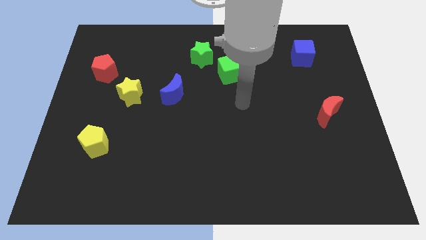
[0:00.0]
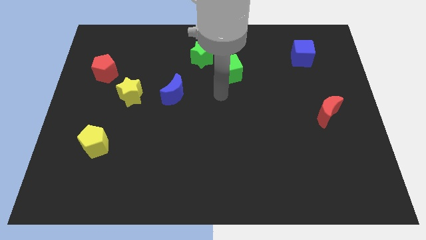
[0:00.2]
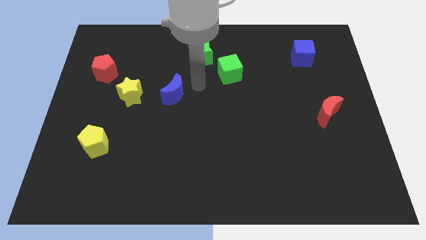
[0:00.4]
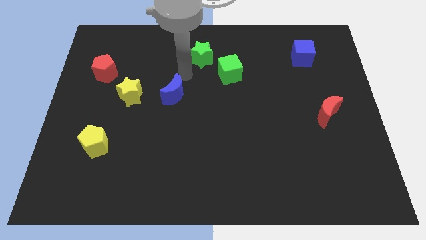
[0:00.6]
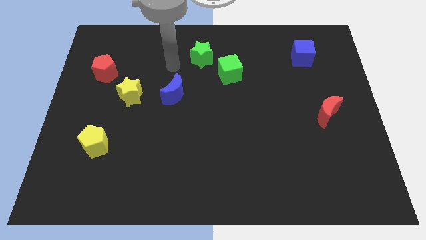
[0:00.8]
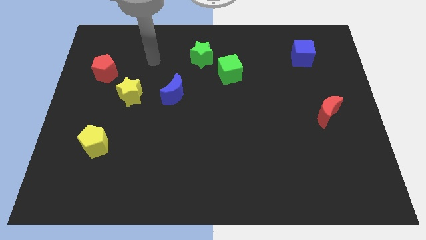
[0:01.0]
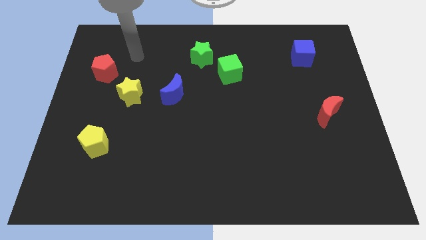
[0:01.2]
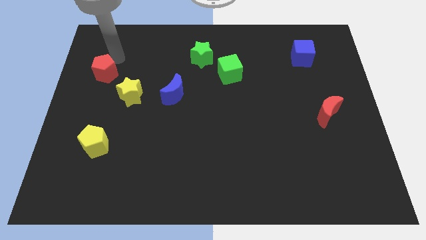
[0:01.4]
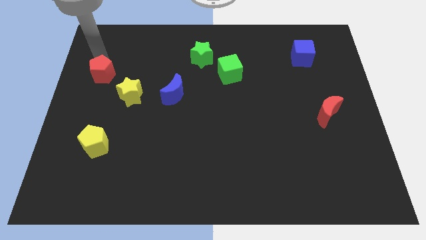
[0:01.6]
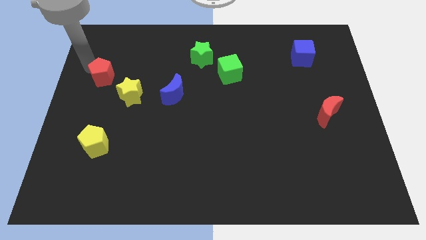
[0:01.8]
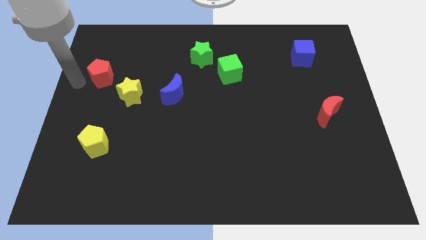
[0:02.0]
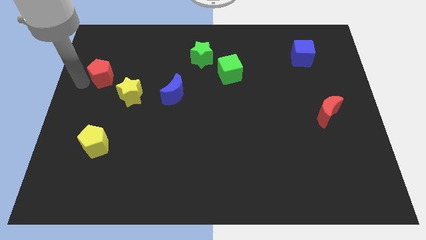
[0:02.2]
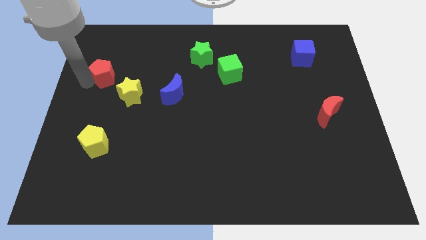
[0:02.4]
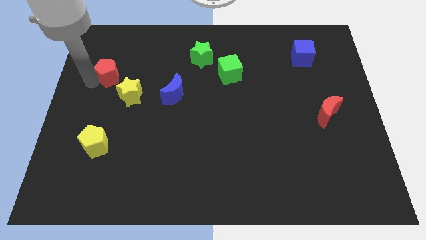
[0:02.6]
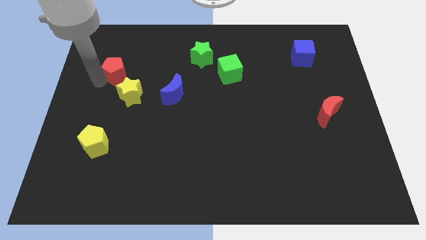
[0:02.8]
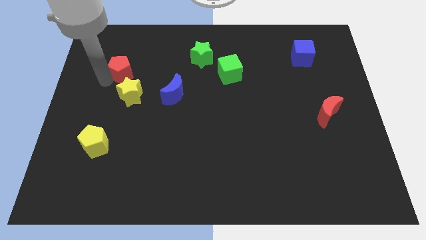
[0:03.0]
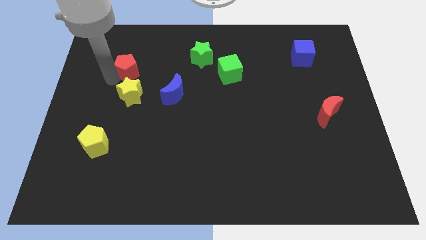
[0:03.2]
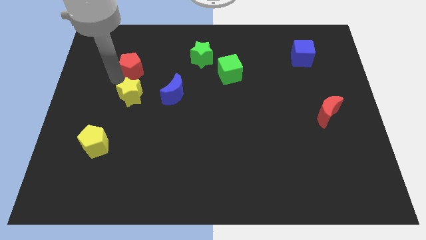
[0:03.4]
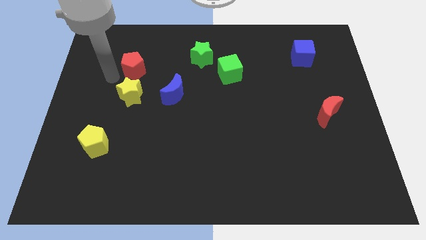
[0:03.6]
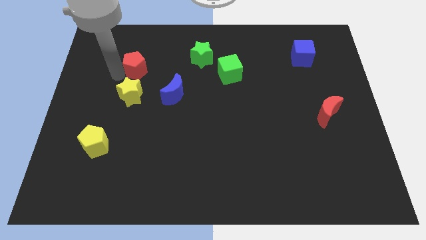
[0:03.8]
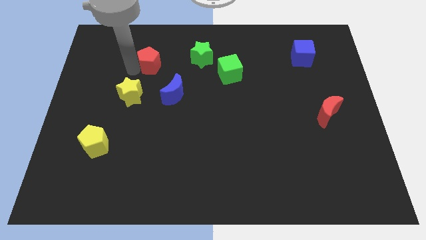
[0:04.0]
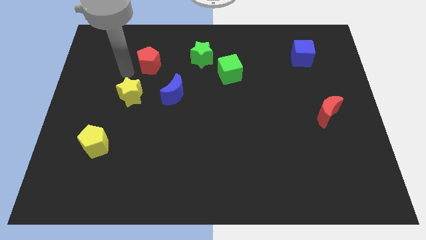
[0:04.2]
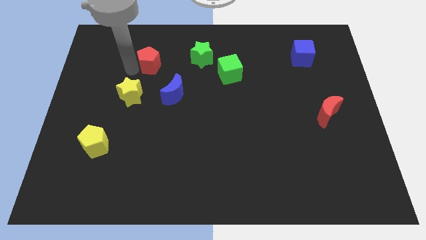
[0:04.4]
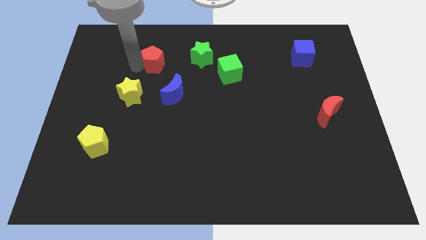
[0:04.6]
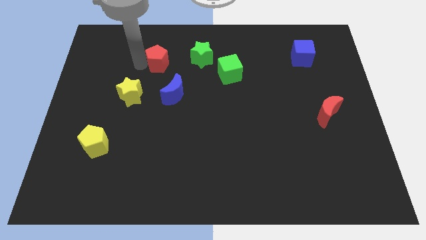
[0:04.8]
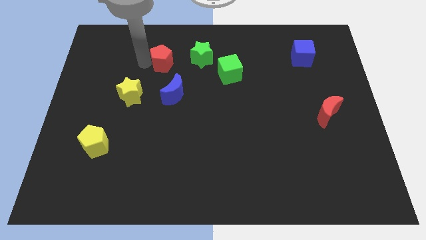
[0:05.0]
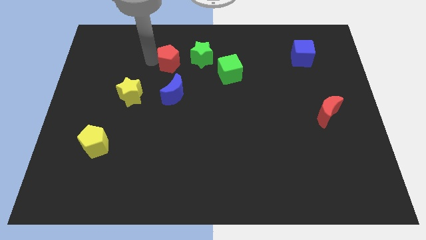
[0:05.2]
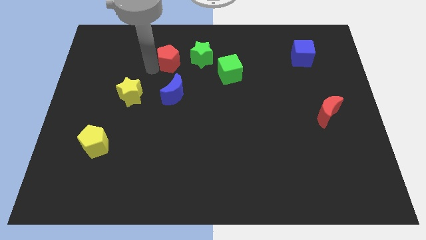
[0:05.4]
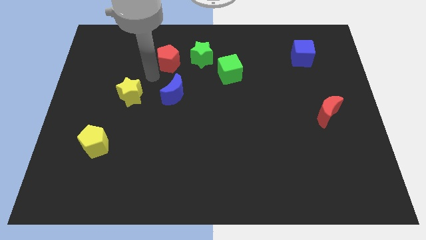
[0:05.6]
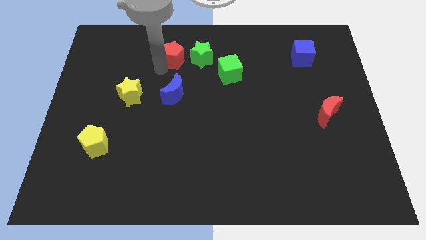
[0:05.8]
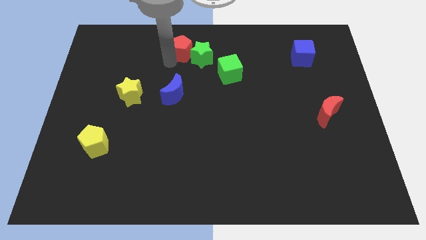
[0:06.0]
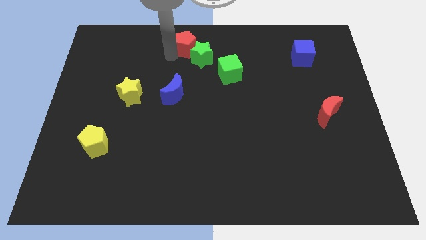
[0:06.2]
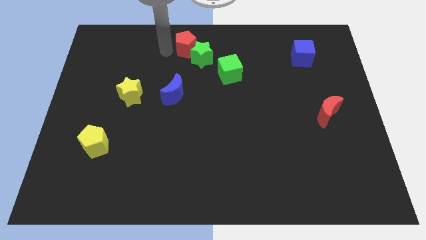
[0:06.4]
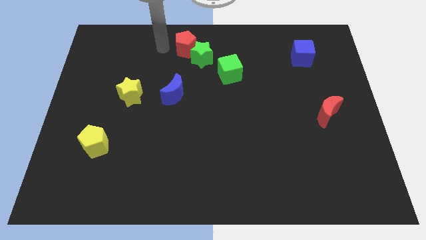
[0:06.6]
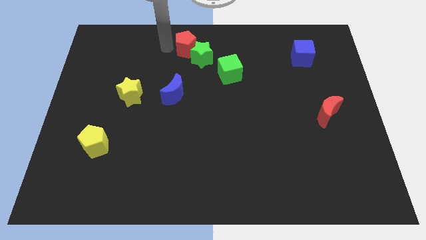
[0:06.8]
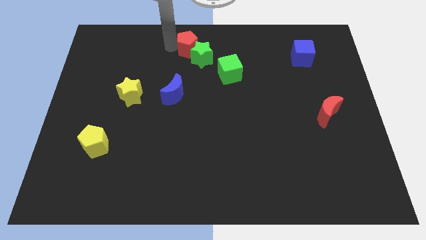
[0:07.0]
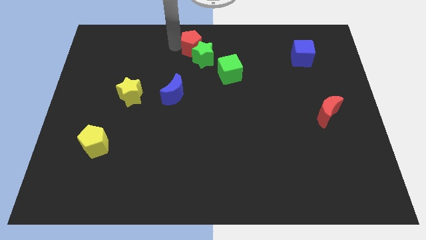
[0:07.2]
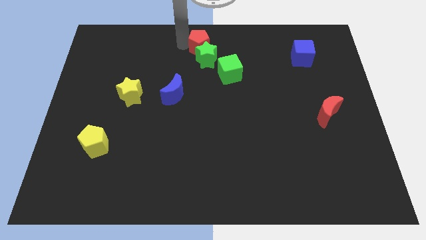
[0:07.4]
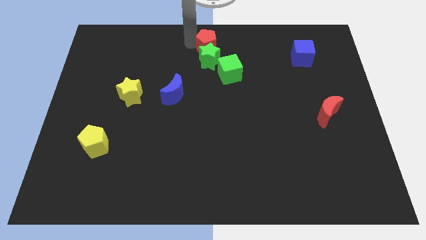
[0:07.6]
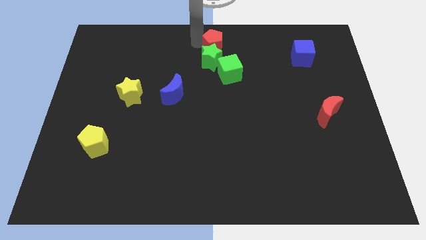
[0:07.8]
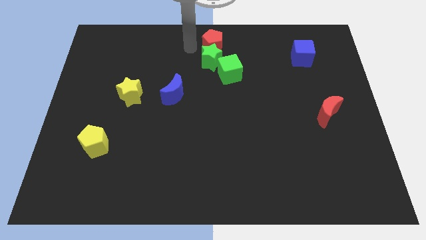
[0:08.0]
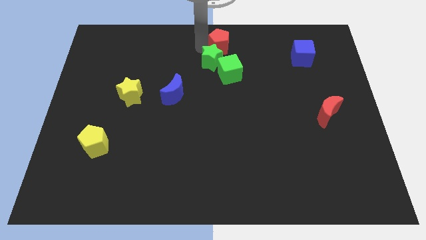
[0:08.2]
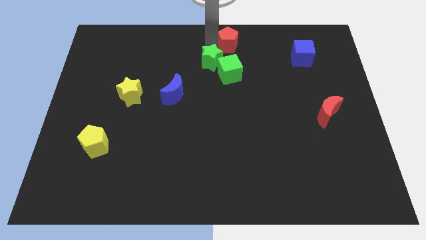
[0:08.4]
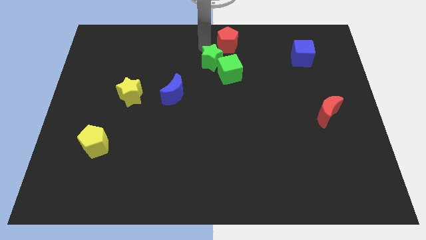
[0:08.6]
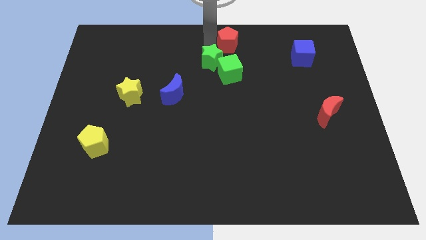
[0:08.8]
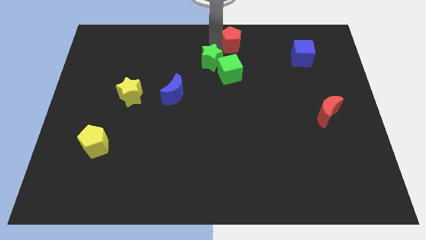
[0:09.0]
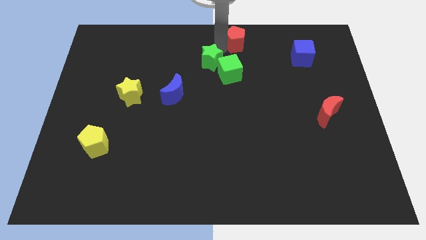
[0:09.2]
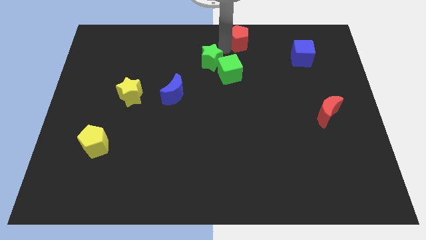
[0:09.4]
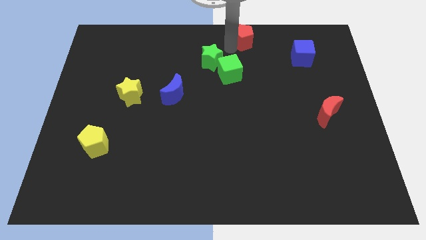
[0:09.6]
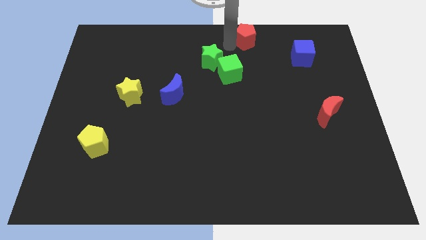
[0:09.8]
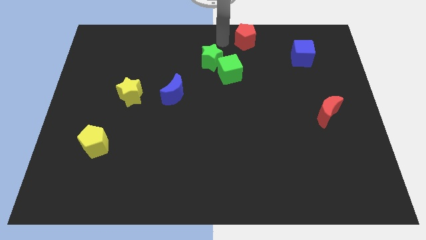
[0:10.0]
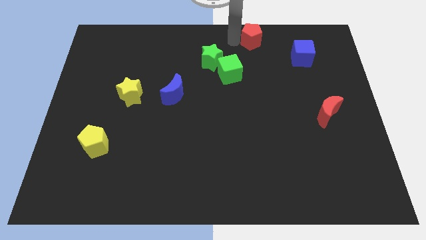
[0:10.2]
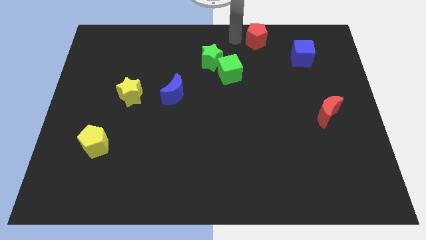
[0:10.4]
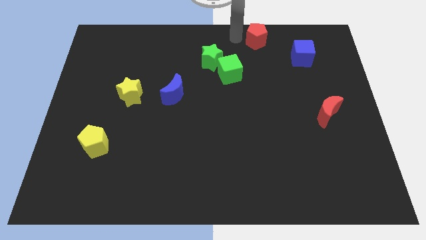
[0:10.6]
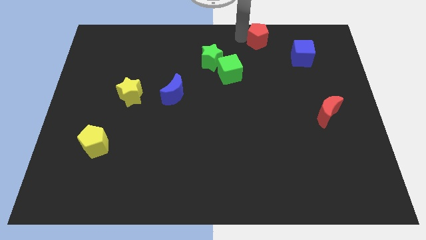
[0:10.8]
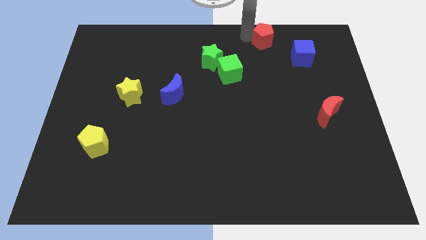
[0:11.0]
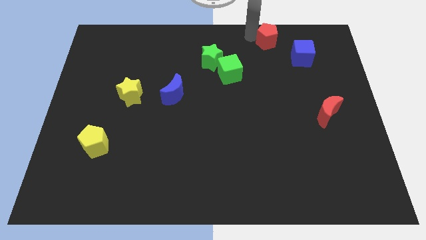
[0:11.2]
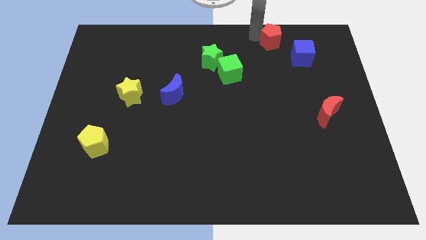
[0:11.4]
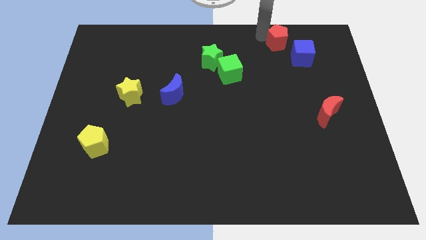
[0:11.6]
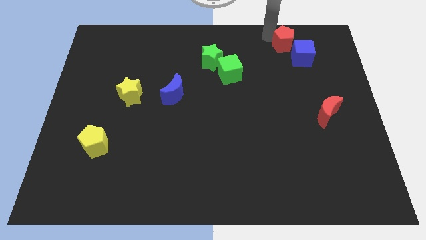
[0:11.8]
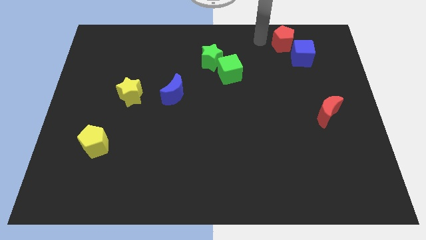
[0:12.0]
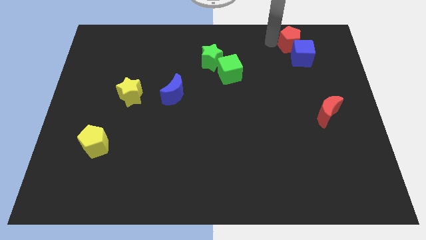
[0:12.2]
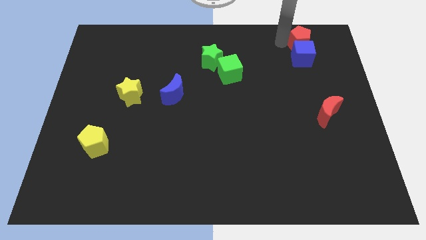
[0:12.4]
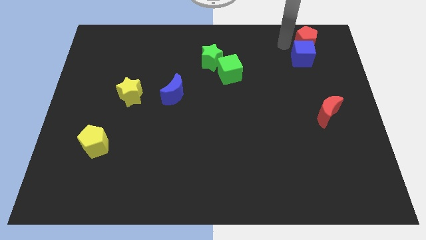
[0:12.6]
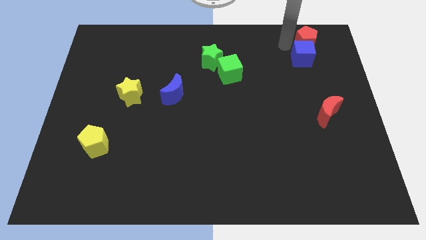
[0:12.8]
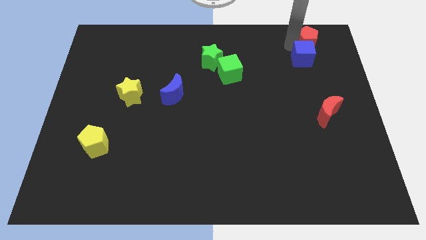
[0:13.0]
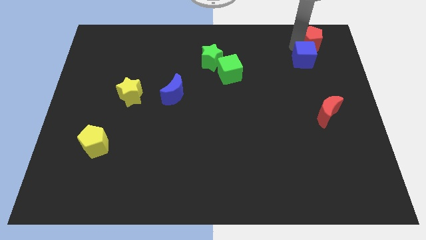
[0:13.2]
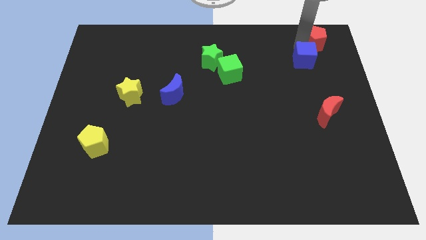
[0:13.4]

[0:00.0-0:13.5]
move the red pentagon to the upper right corner
